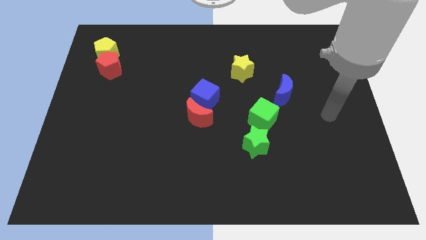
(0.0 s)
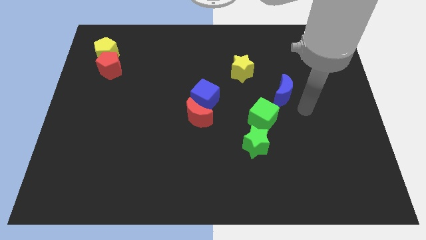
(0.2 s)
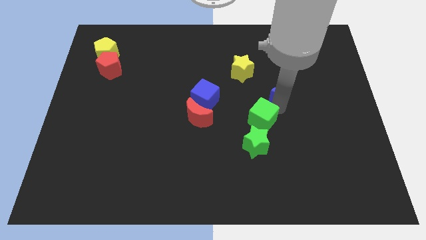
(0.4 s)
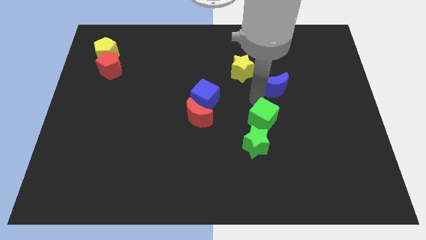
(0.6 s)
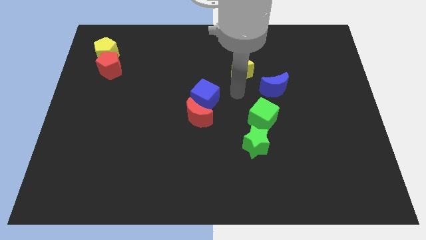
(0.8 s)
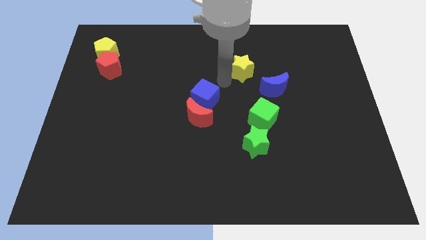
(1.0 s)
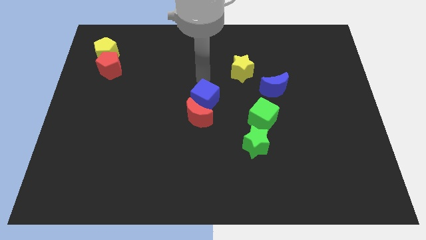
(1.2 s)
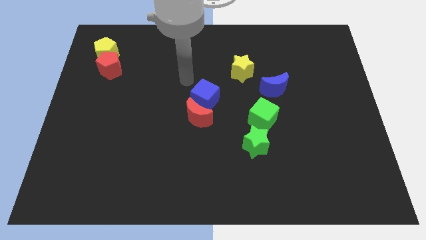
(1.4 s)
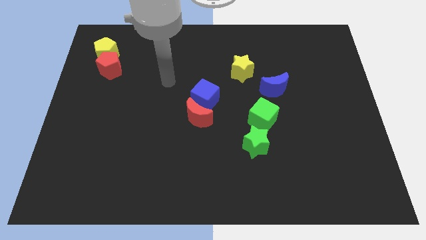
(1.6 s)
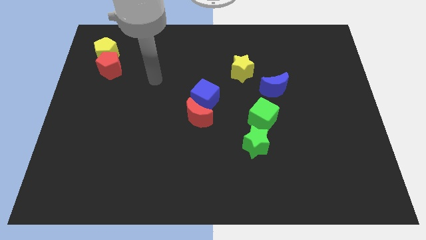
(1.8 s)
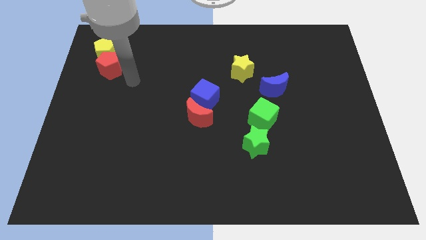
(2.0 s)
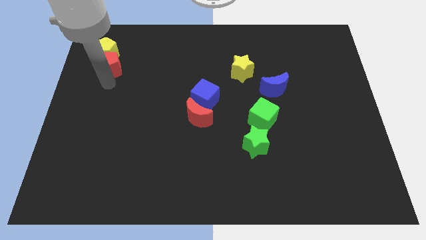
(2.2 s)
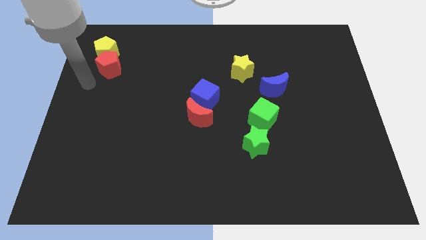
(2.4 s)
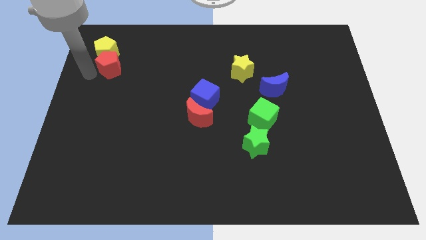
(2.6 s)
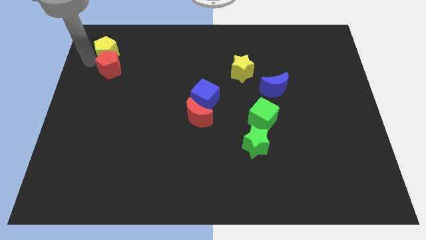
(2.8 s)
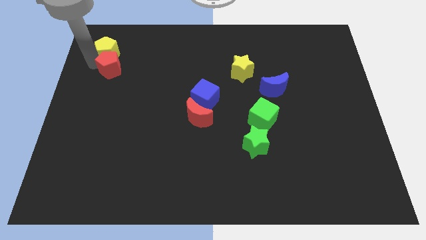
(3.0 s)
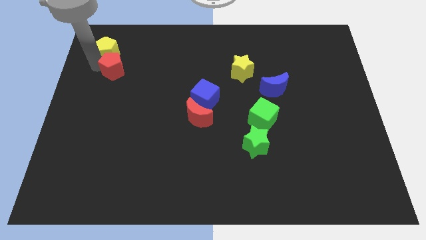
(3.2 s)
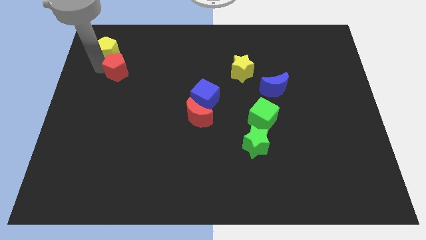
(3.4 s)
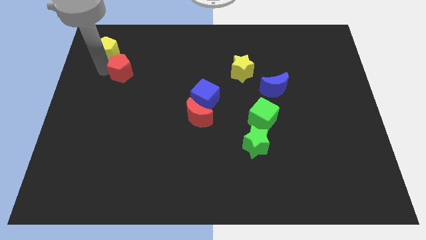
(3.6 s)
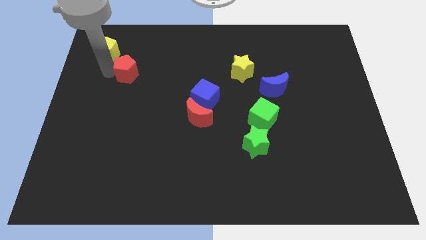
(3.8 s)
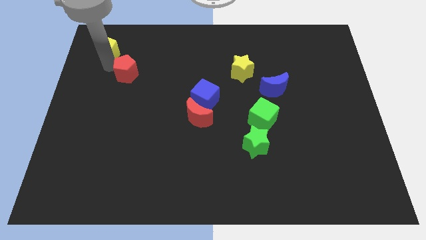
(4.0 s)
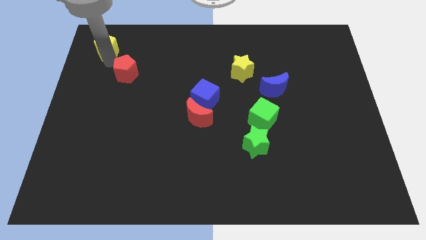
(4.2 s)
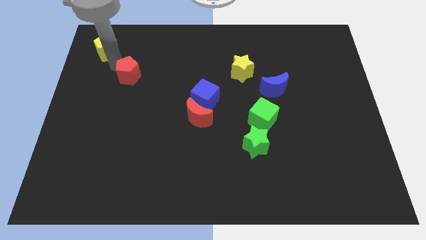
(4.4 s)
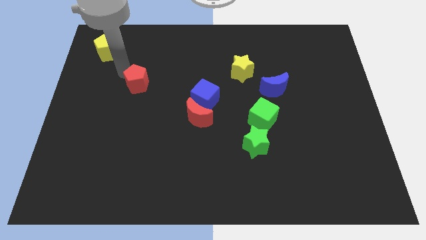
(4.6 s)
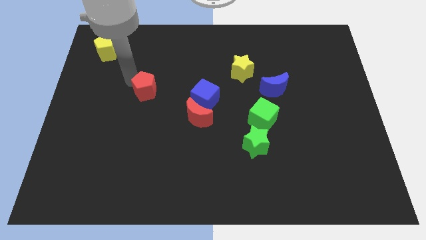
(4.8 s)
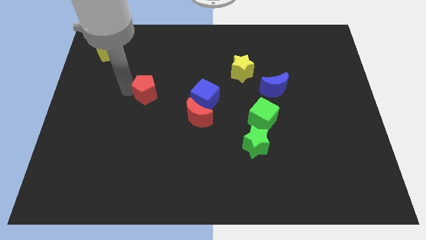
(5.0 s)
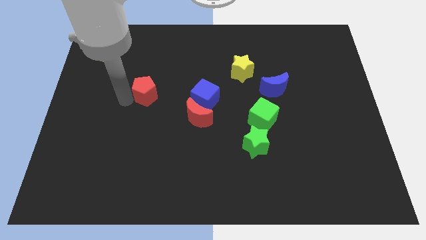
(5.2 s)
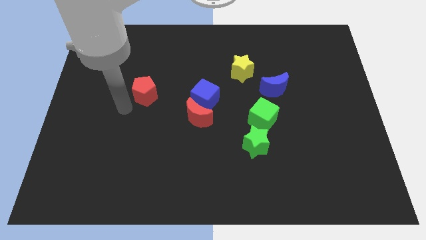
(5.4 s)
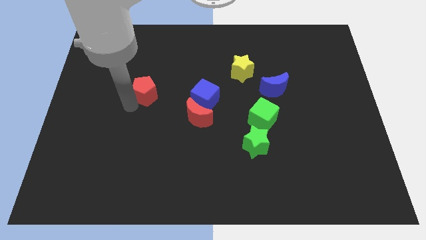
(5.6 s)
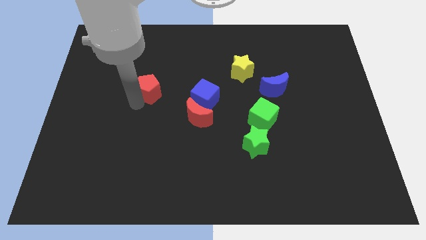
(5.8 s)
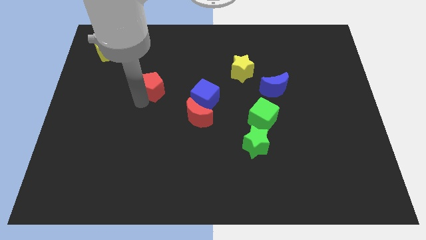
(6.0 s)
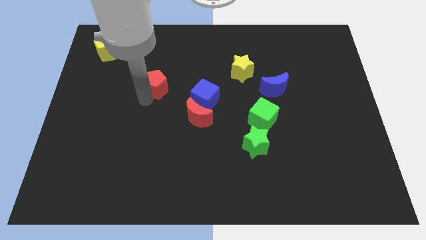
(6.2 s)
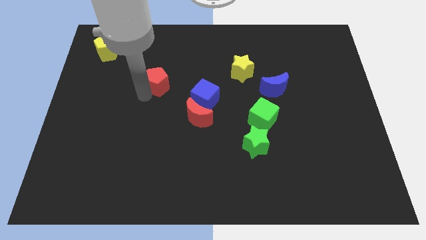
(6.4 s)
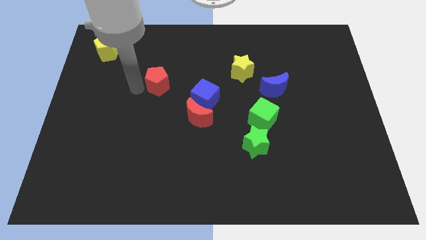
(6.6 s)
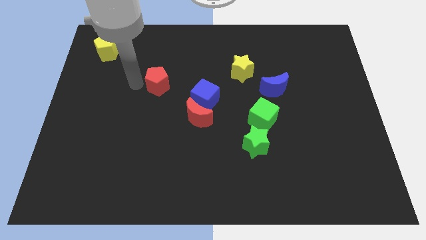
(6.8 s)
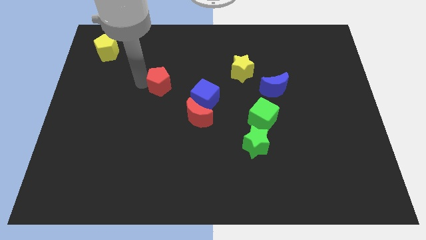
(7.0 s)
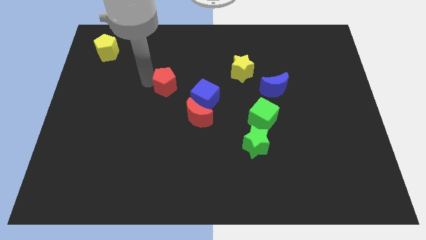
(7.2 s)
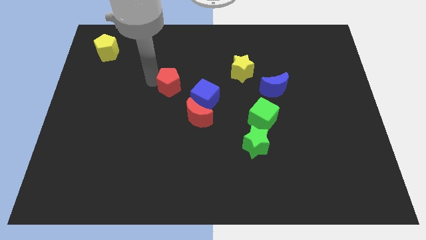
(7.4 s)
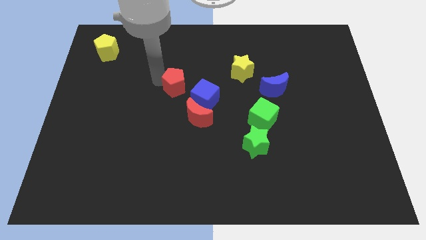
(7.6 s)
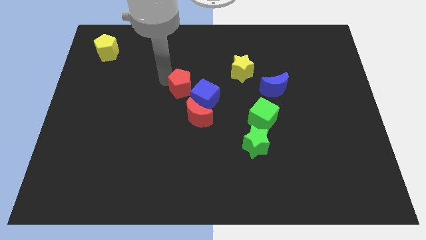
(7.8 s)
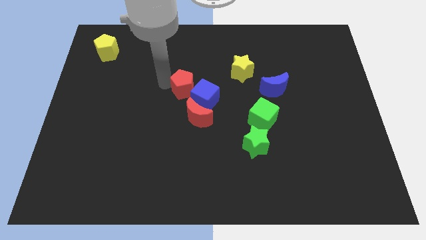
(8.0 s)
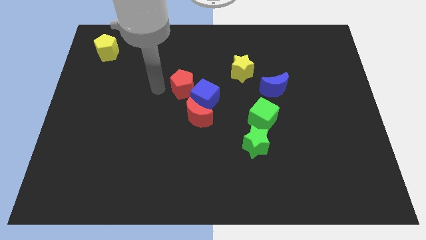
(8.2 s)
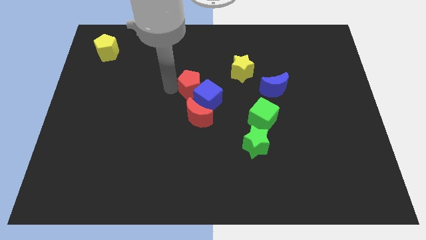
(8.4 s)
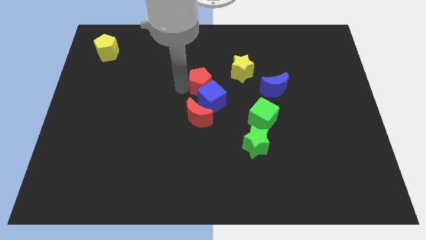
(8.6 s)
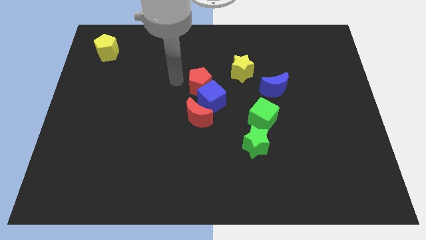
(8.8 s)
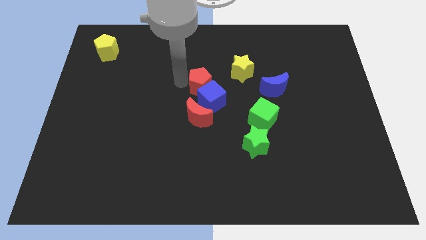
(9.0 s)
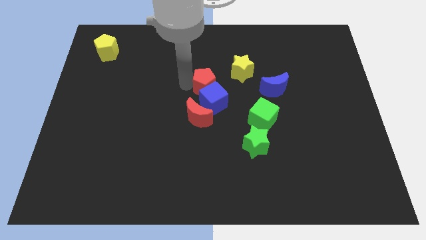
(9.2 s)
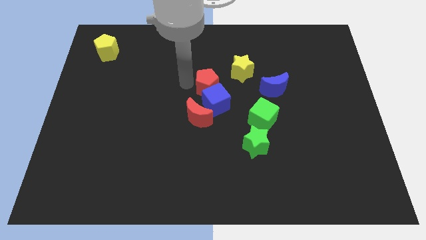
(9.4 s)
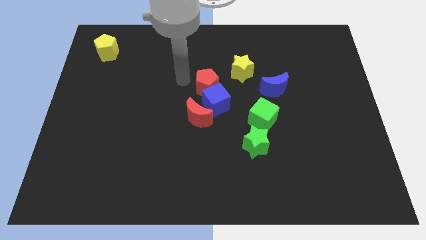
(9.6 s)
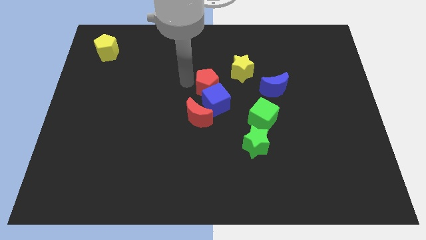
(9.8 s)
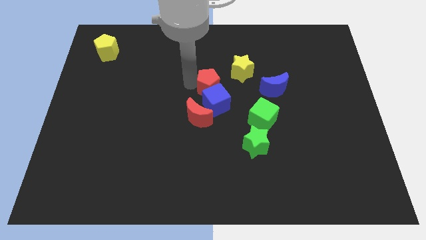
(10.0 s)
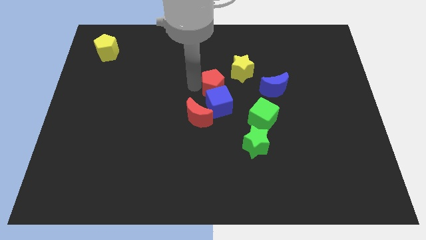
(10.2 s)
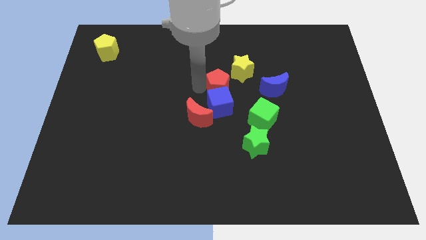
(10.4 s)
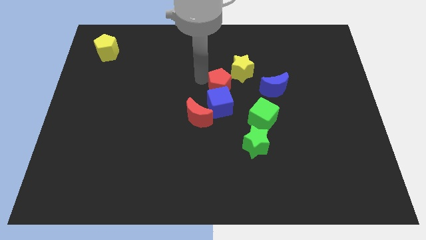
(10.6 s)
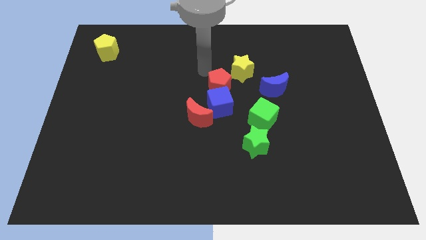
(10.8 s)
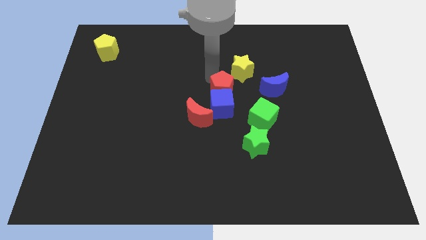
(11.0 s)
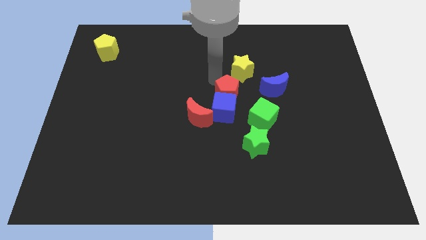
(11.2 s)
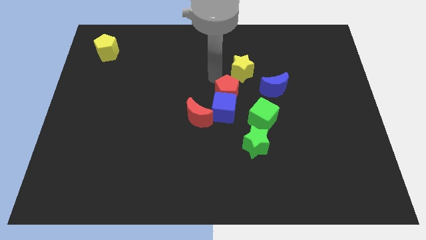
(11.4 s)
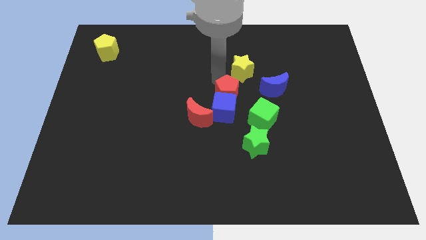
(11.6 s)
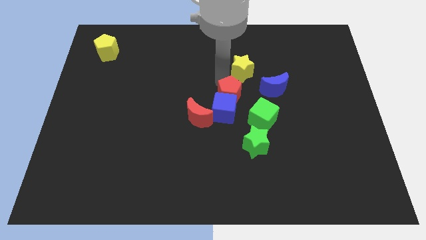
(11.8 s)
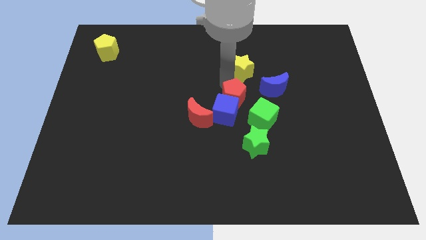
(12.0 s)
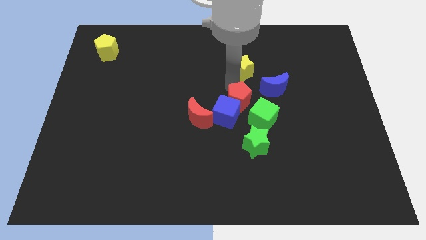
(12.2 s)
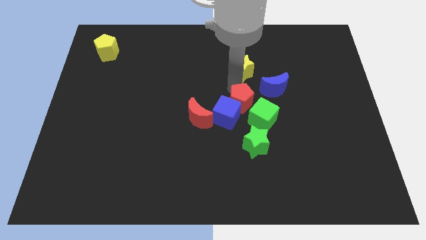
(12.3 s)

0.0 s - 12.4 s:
slide the red pentagon to the right side of the red moon

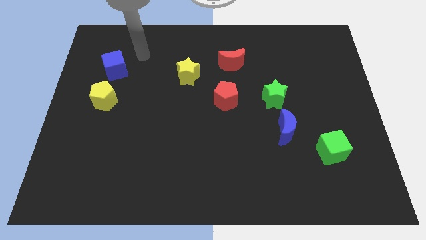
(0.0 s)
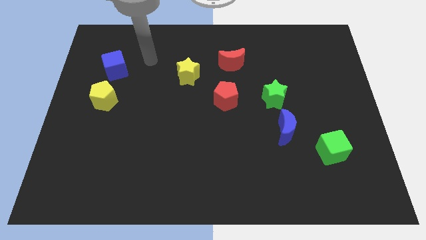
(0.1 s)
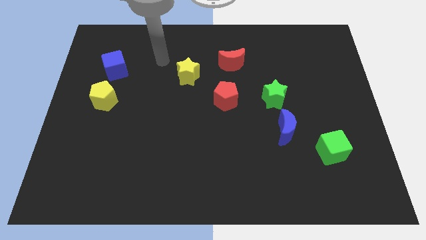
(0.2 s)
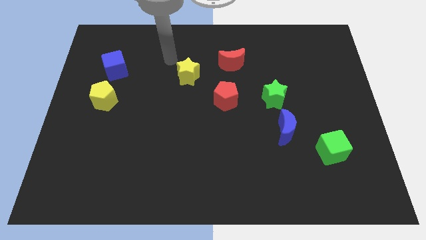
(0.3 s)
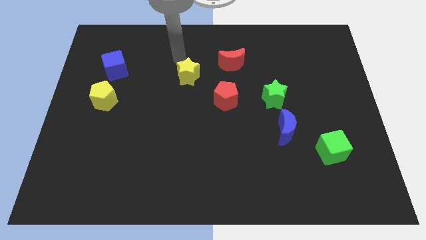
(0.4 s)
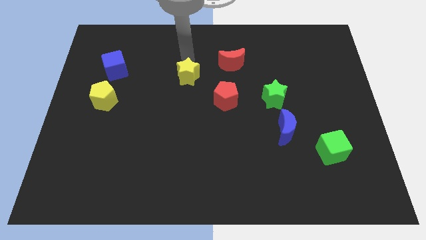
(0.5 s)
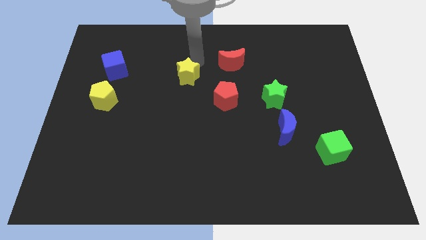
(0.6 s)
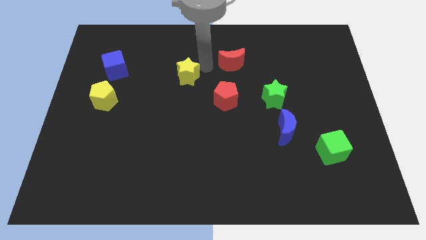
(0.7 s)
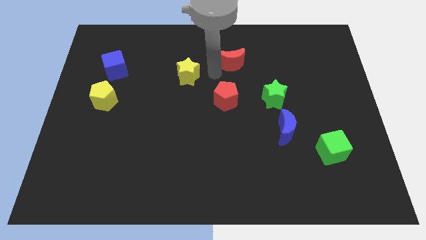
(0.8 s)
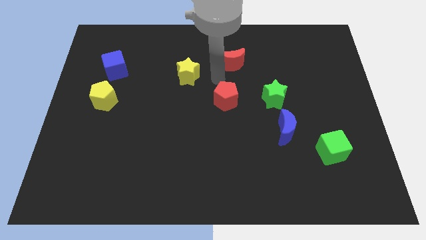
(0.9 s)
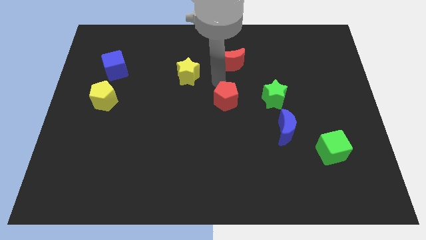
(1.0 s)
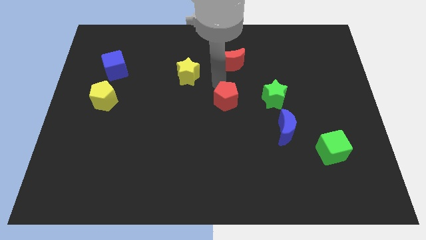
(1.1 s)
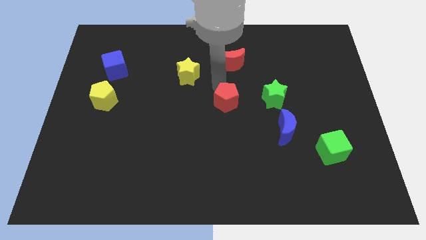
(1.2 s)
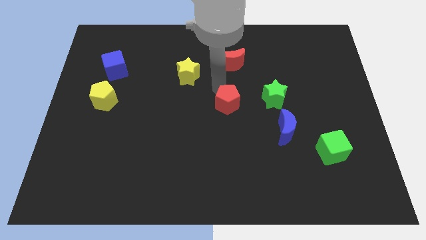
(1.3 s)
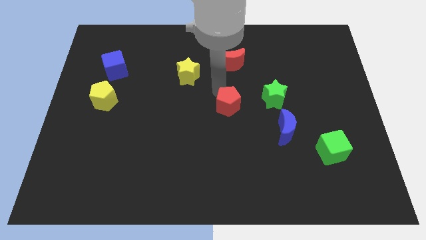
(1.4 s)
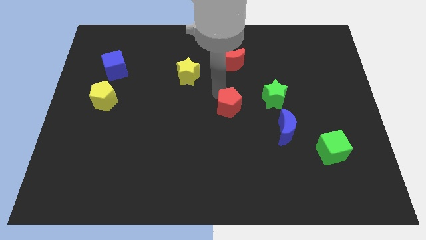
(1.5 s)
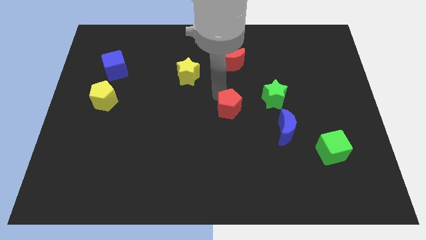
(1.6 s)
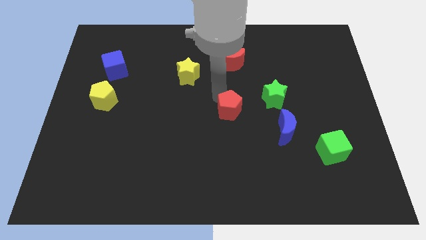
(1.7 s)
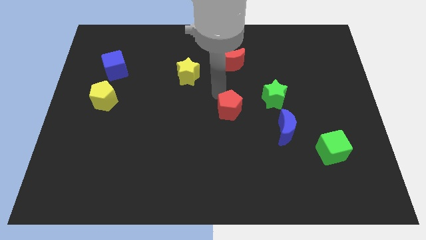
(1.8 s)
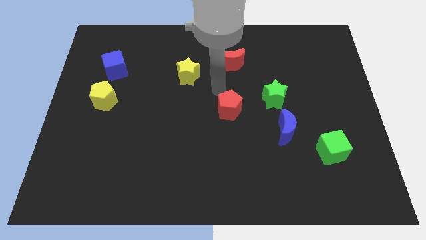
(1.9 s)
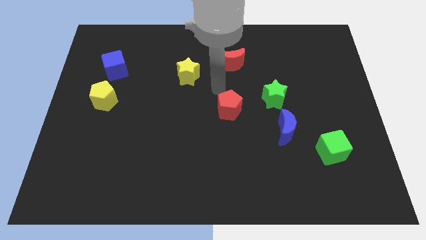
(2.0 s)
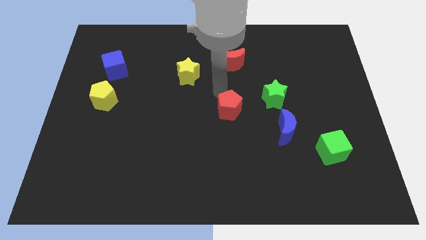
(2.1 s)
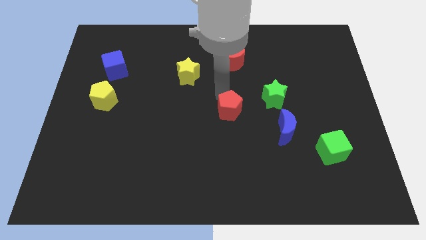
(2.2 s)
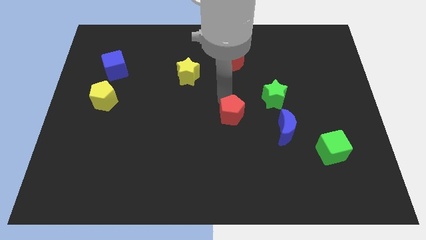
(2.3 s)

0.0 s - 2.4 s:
put the red pentagon to the left side of the blue moon
